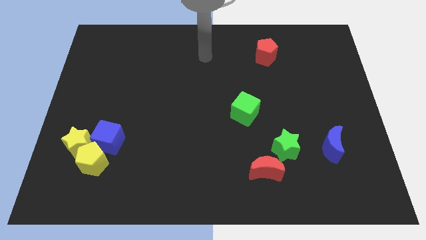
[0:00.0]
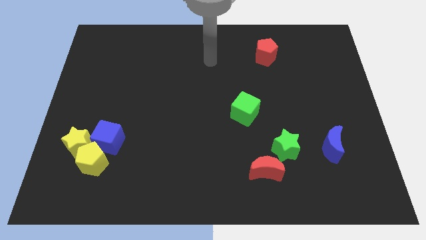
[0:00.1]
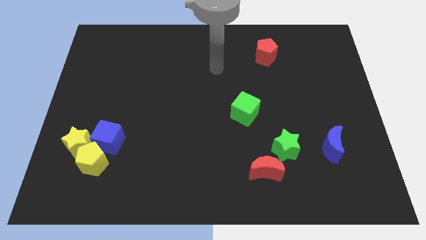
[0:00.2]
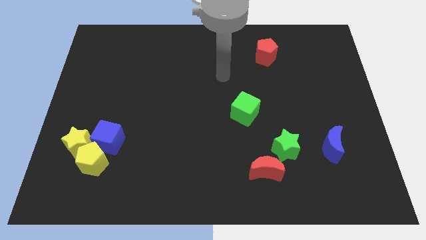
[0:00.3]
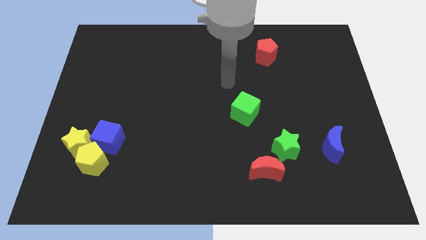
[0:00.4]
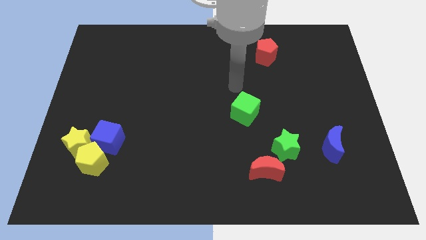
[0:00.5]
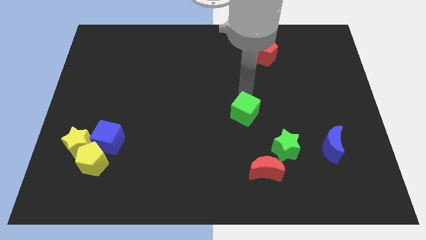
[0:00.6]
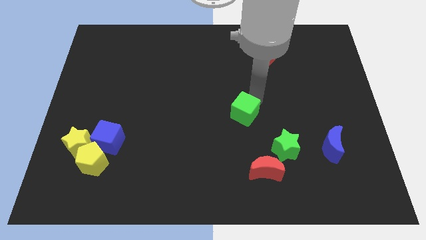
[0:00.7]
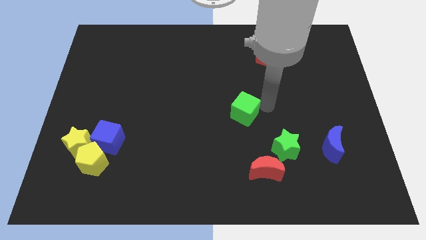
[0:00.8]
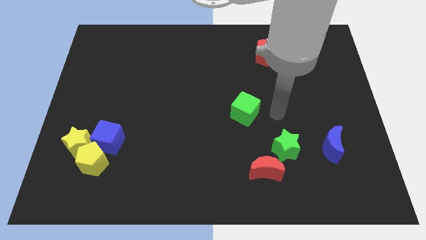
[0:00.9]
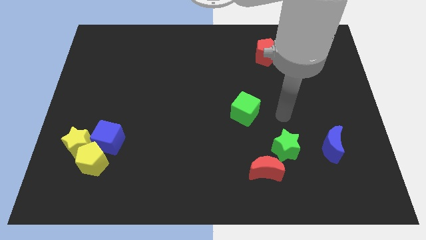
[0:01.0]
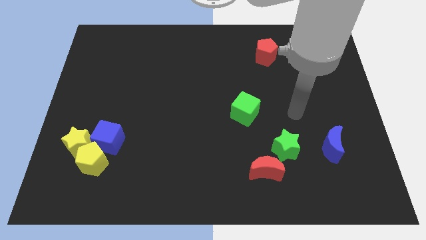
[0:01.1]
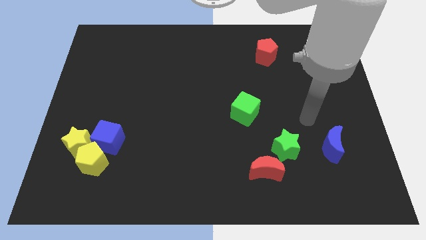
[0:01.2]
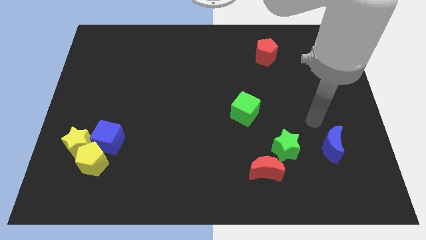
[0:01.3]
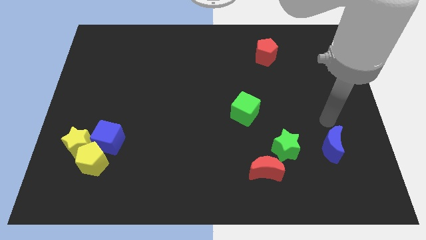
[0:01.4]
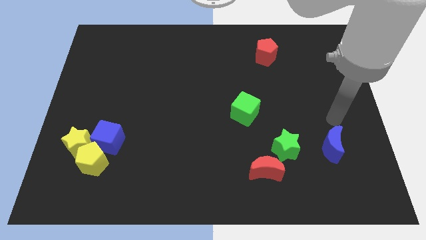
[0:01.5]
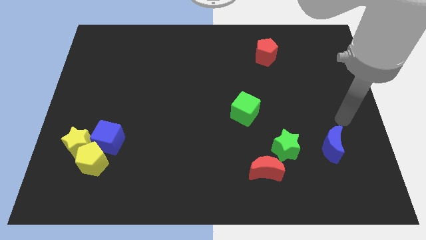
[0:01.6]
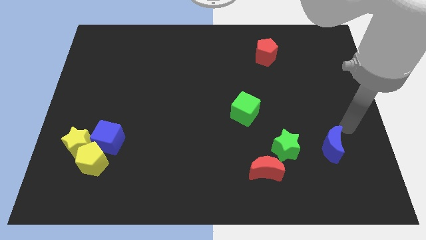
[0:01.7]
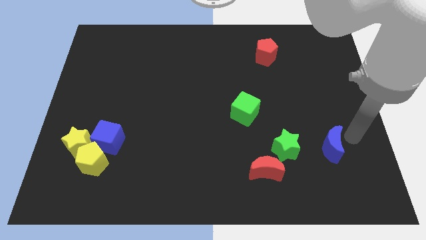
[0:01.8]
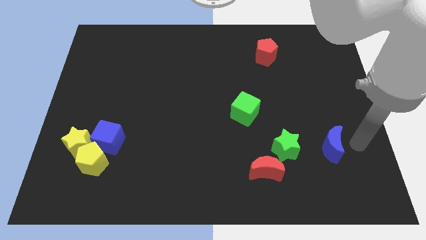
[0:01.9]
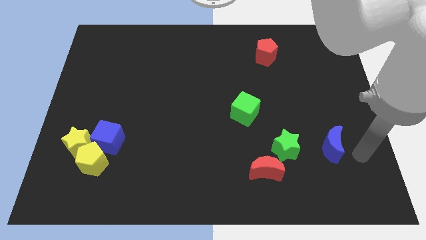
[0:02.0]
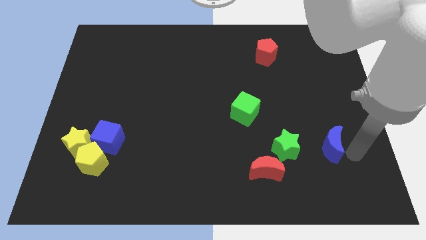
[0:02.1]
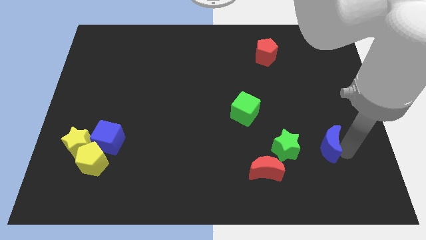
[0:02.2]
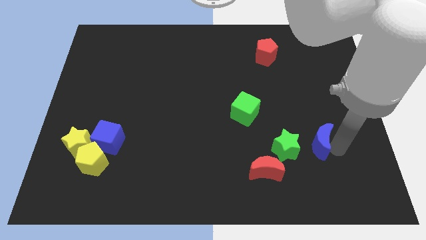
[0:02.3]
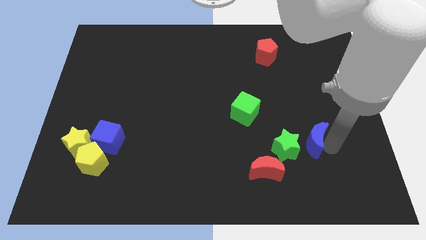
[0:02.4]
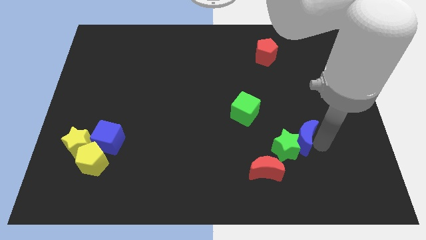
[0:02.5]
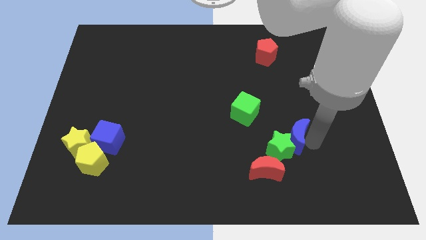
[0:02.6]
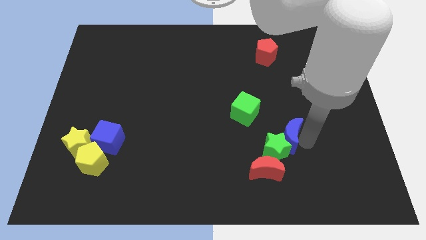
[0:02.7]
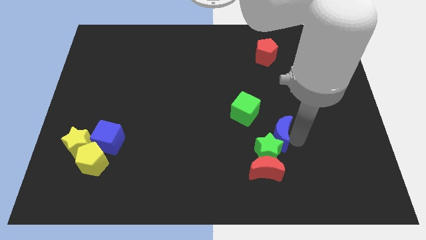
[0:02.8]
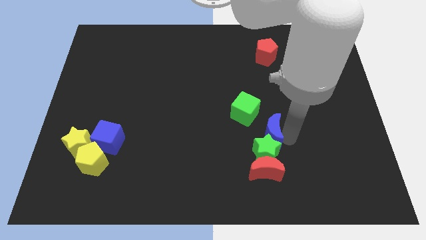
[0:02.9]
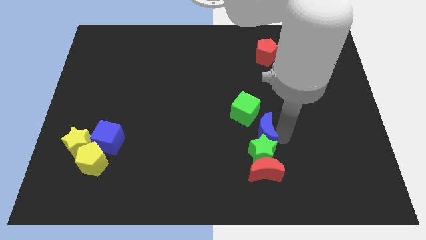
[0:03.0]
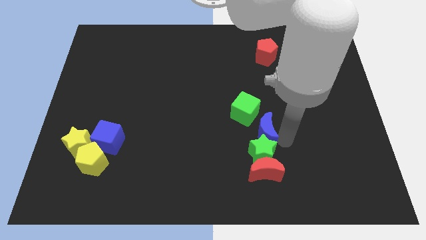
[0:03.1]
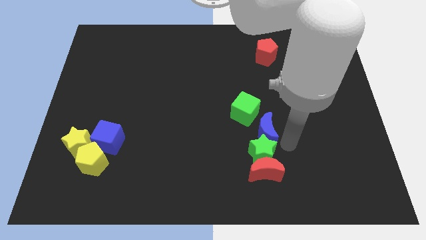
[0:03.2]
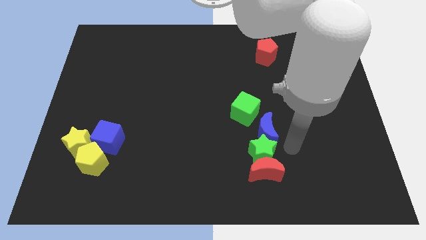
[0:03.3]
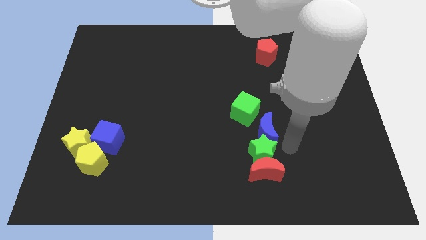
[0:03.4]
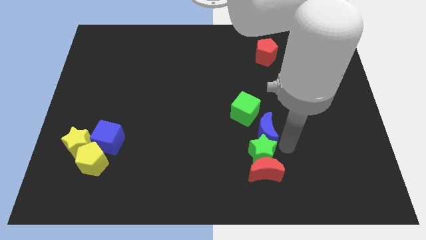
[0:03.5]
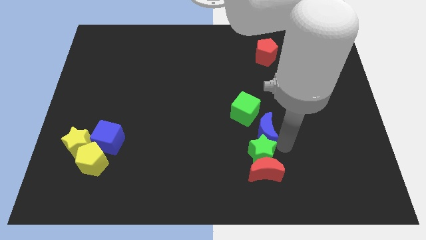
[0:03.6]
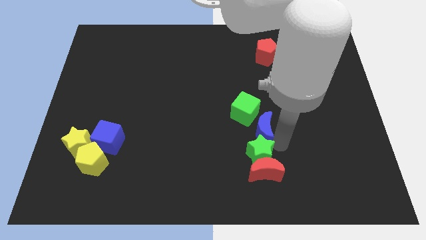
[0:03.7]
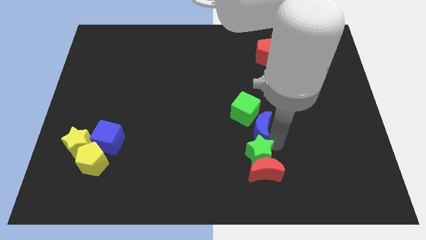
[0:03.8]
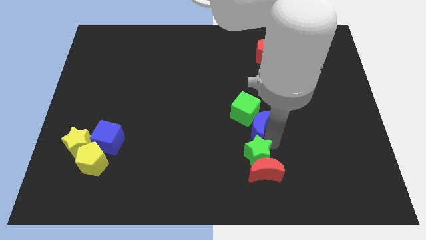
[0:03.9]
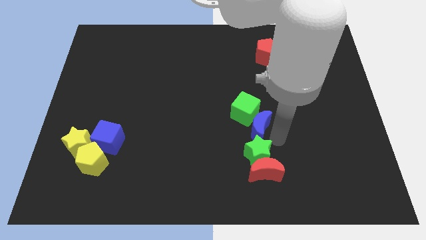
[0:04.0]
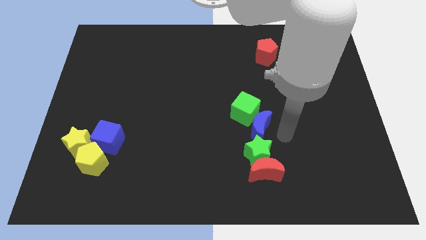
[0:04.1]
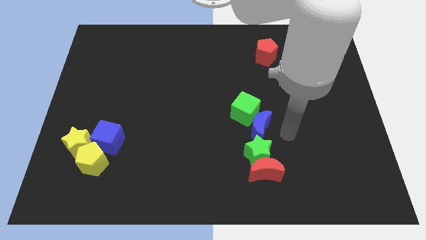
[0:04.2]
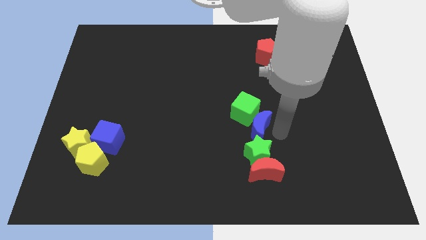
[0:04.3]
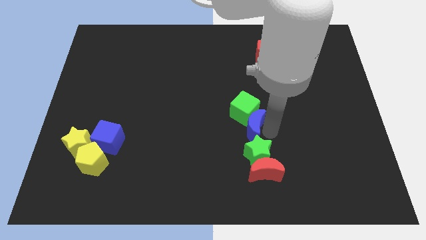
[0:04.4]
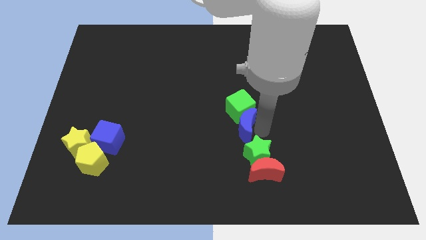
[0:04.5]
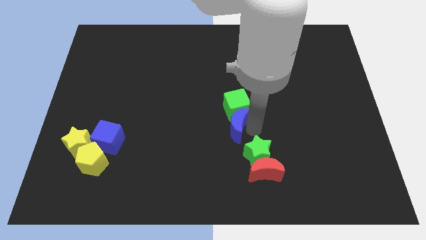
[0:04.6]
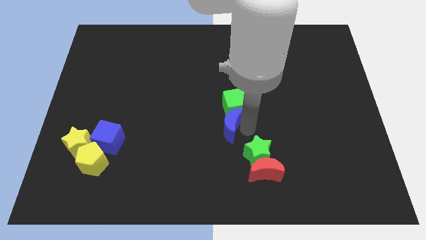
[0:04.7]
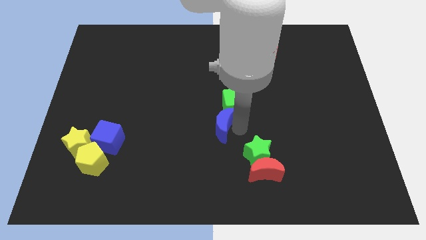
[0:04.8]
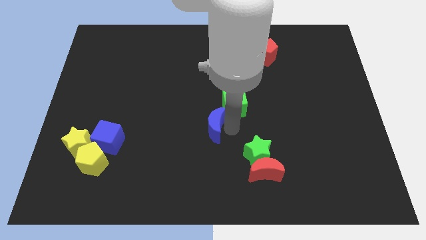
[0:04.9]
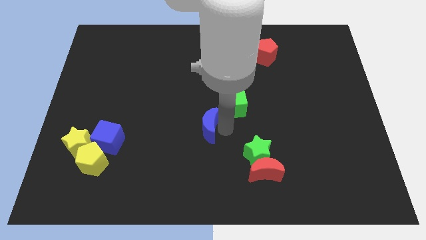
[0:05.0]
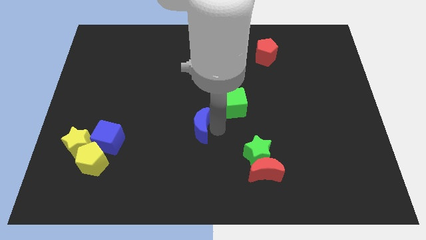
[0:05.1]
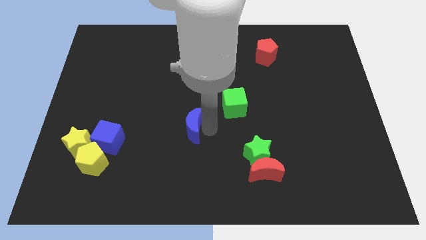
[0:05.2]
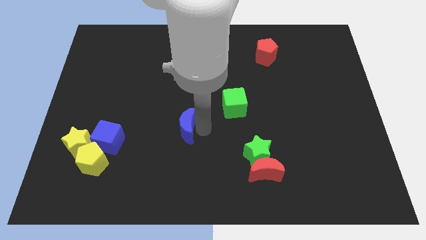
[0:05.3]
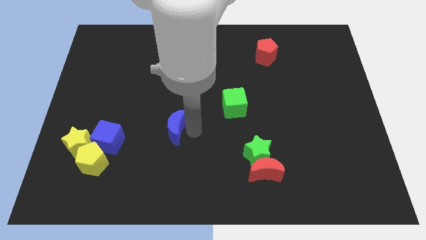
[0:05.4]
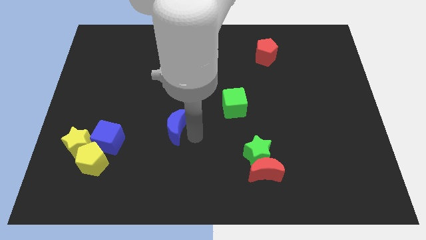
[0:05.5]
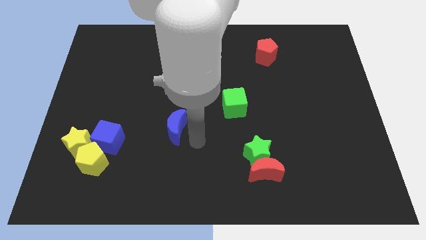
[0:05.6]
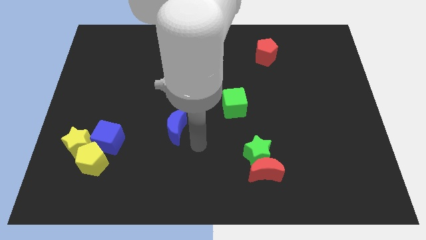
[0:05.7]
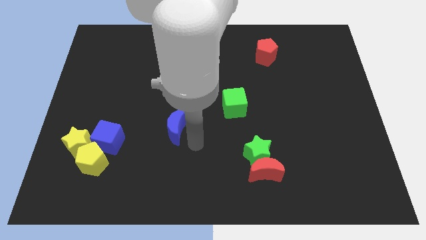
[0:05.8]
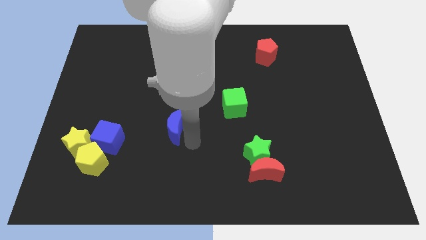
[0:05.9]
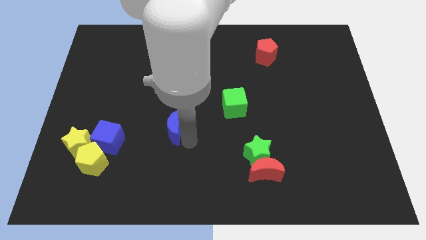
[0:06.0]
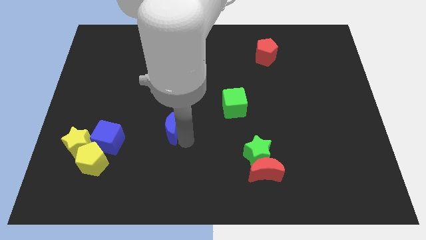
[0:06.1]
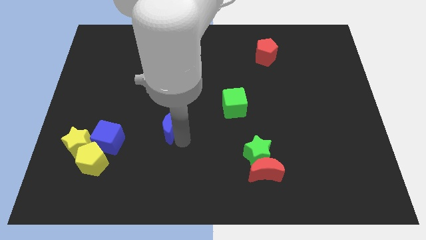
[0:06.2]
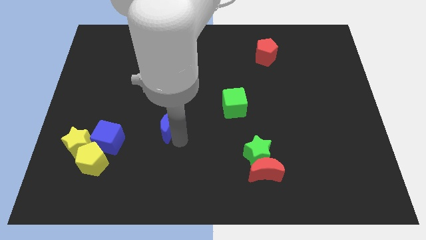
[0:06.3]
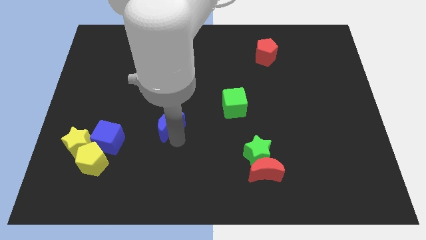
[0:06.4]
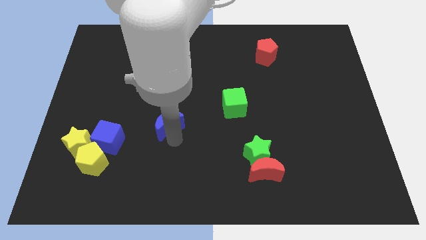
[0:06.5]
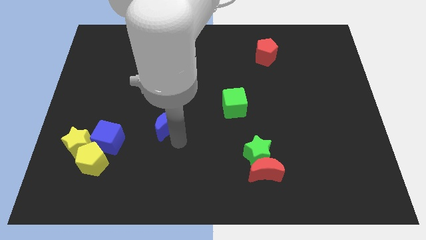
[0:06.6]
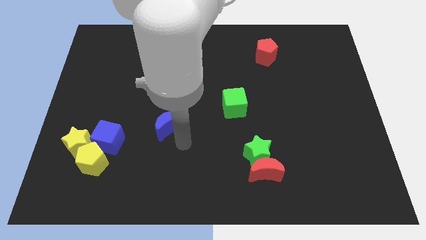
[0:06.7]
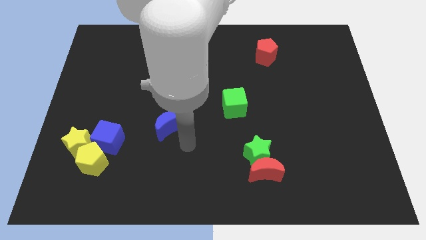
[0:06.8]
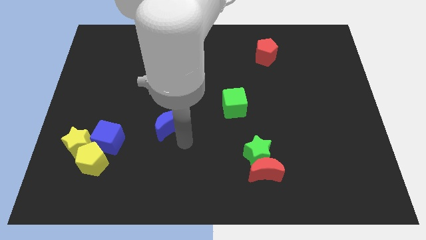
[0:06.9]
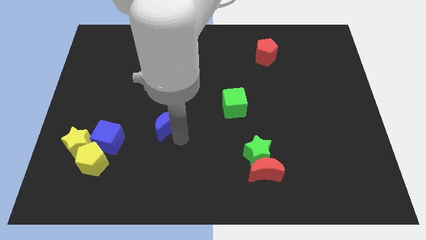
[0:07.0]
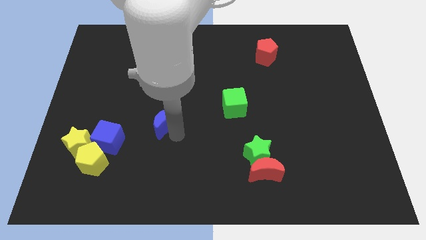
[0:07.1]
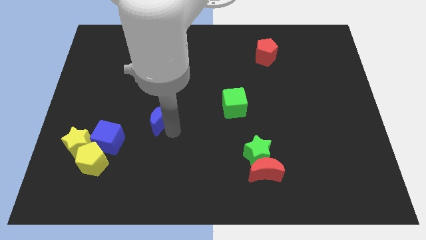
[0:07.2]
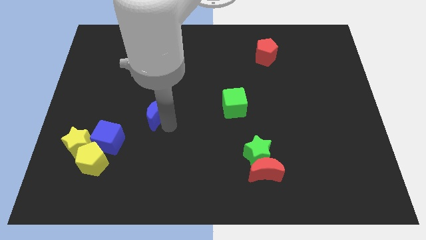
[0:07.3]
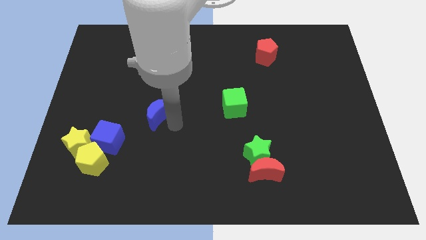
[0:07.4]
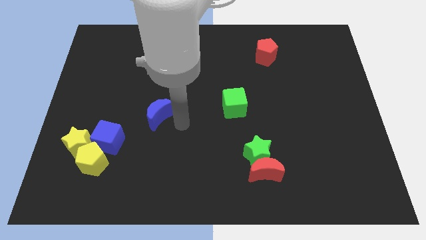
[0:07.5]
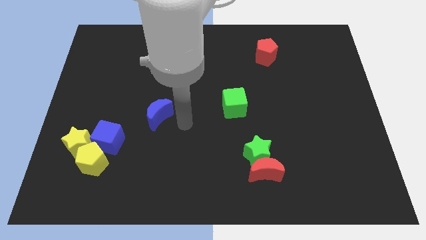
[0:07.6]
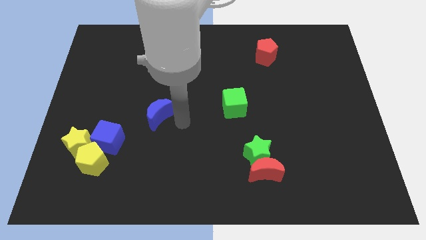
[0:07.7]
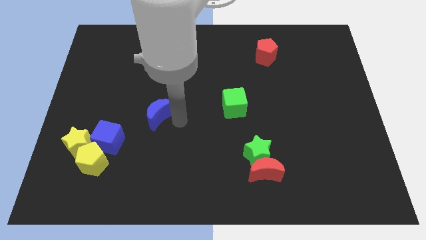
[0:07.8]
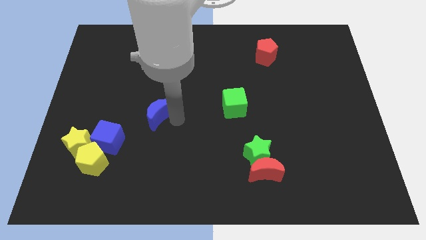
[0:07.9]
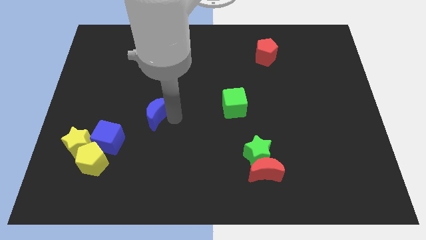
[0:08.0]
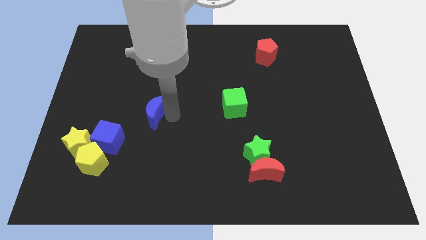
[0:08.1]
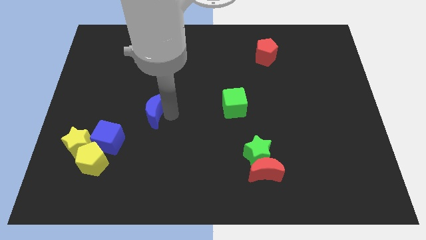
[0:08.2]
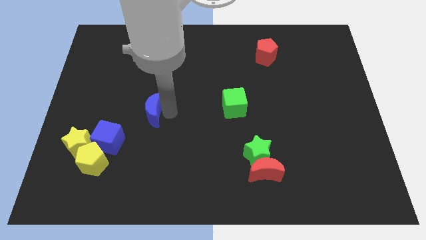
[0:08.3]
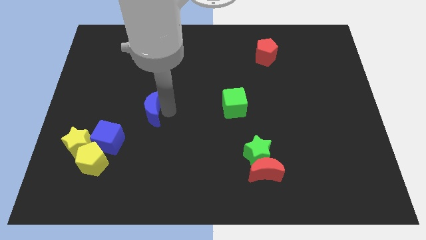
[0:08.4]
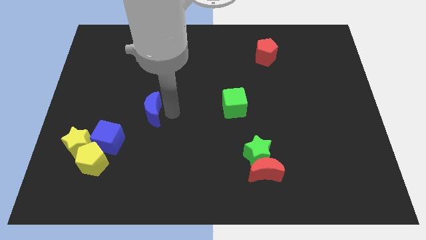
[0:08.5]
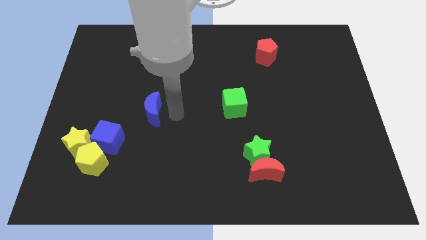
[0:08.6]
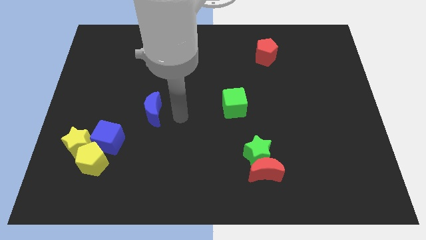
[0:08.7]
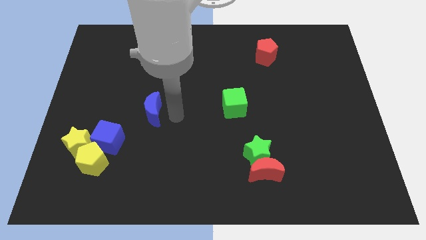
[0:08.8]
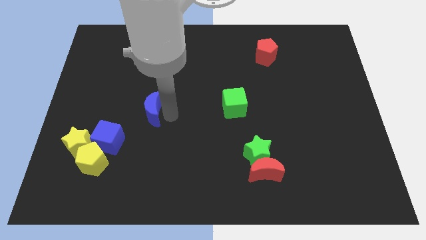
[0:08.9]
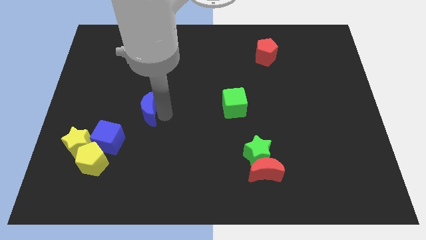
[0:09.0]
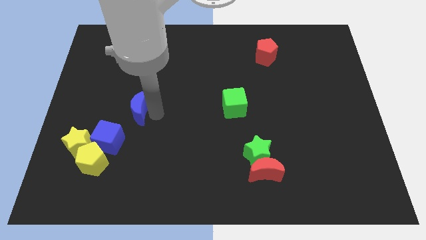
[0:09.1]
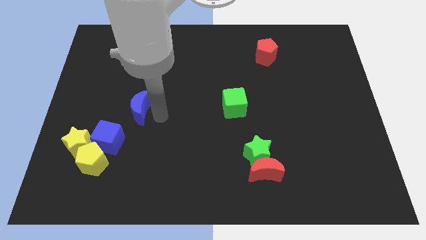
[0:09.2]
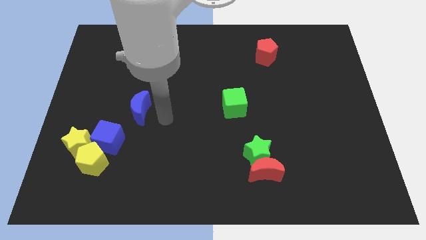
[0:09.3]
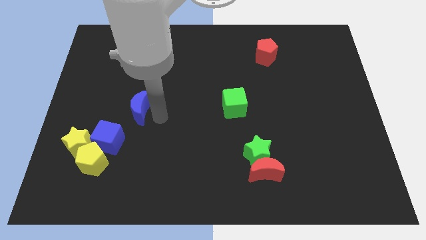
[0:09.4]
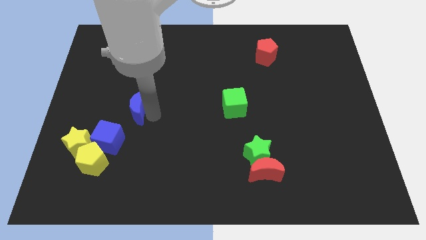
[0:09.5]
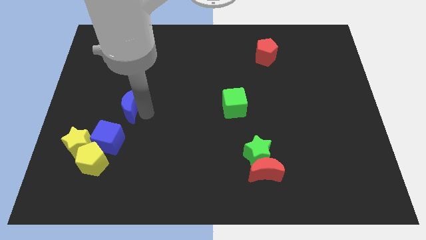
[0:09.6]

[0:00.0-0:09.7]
move the blue moon to the top side of the blue cube
